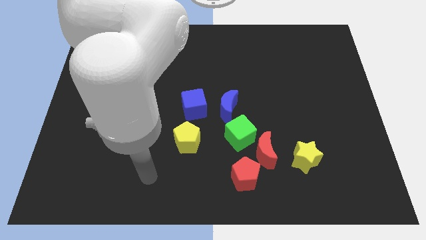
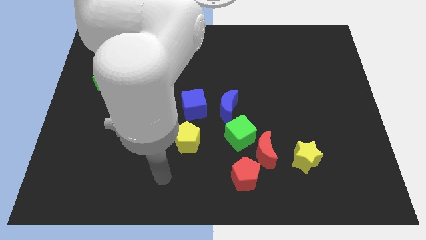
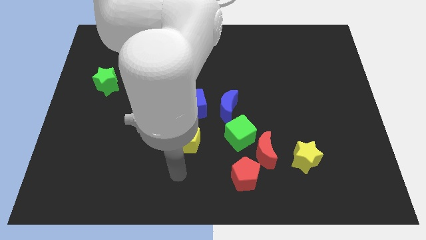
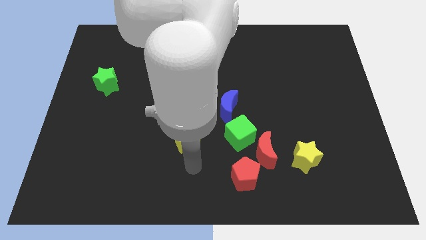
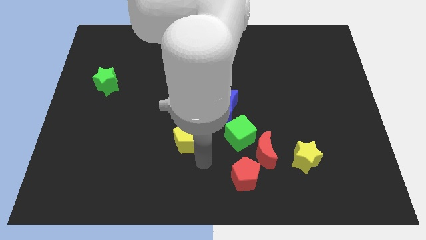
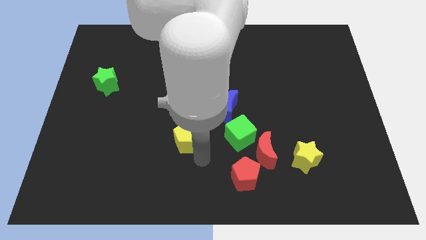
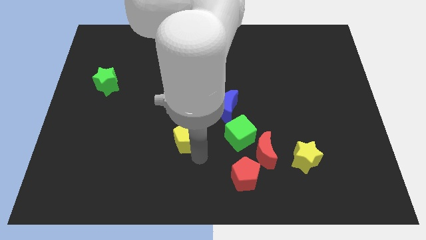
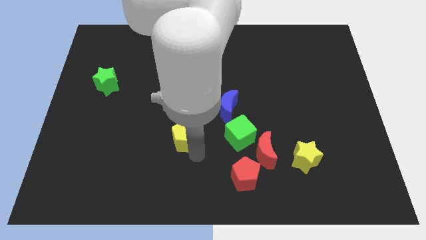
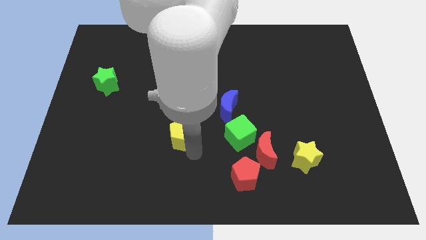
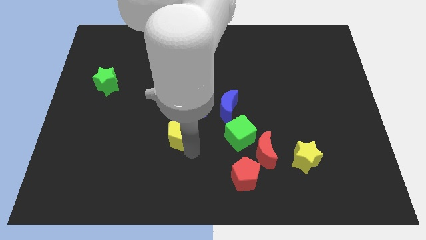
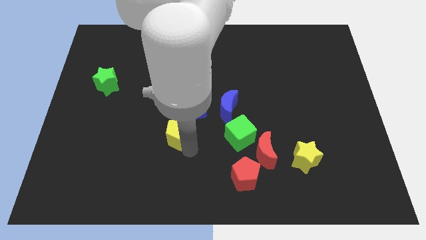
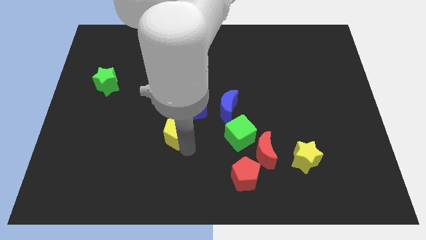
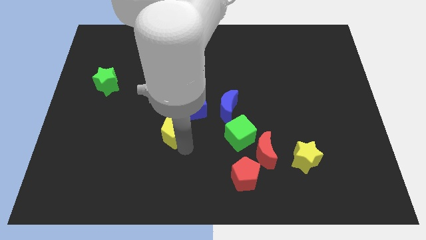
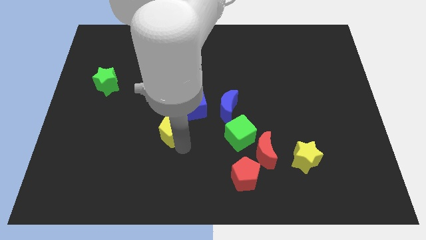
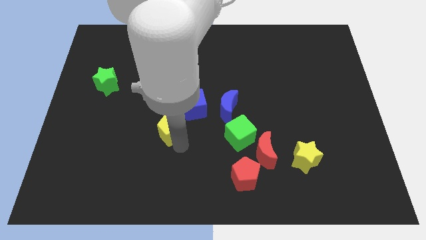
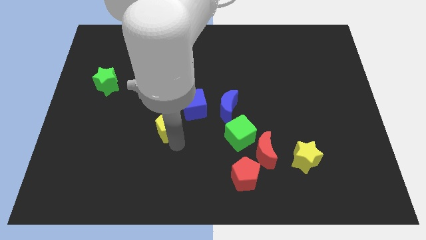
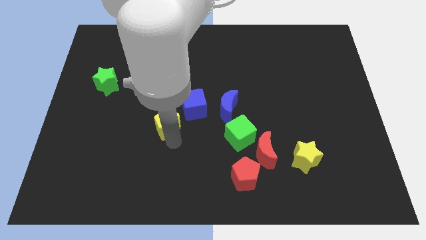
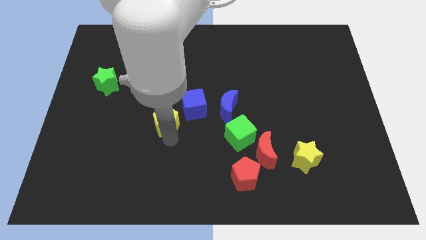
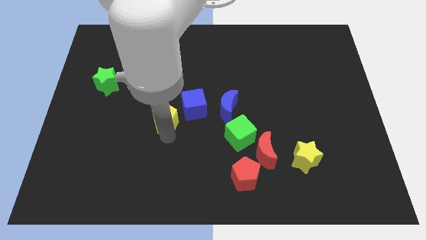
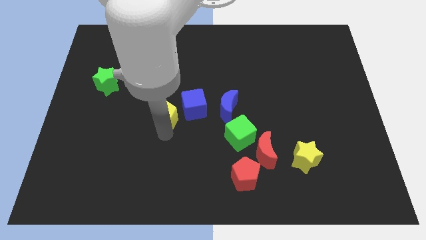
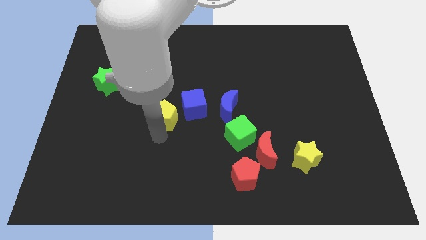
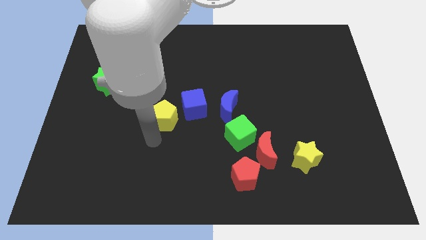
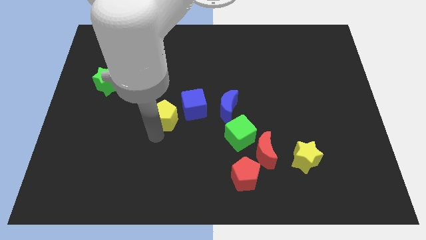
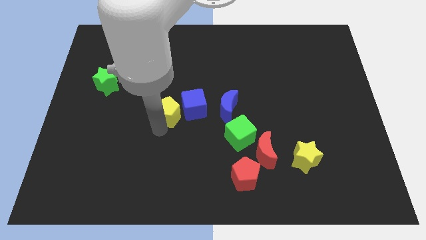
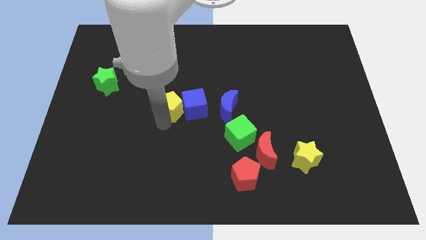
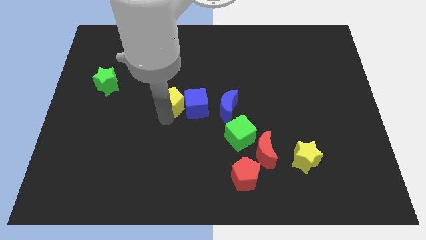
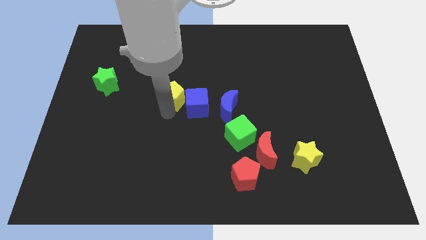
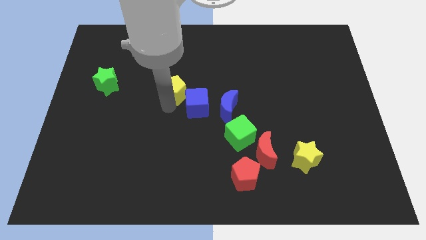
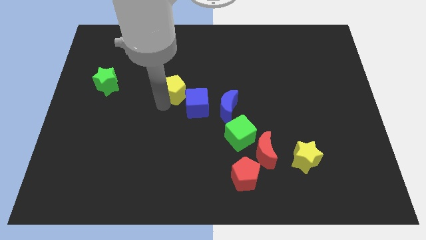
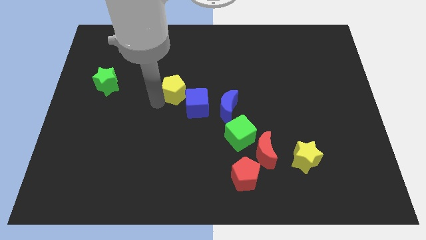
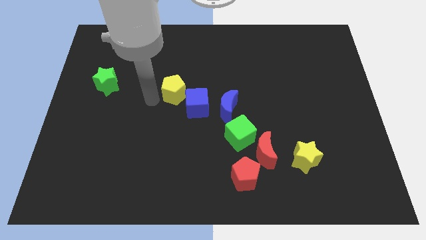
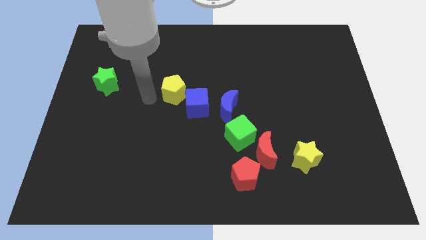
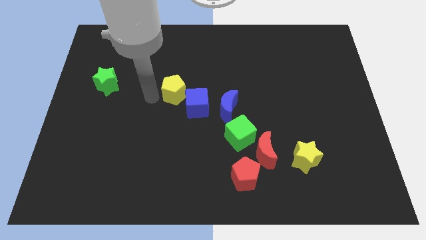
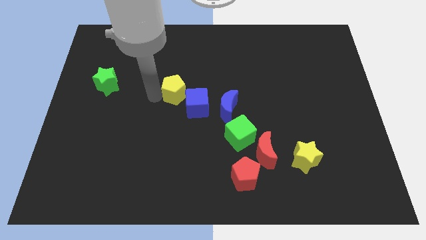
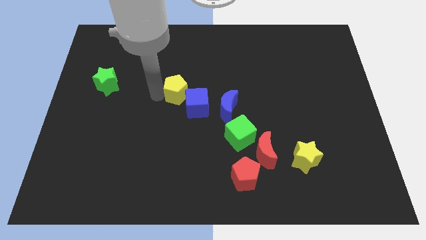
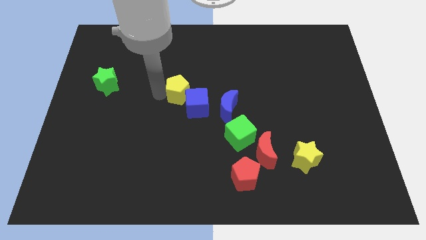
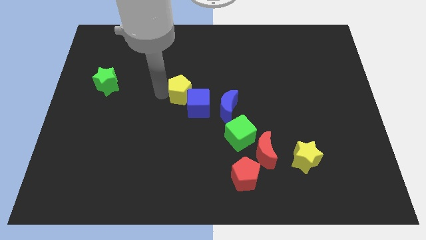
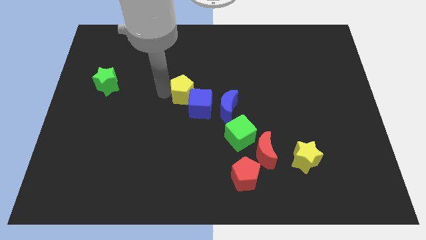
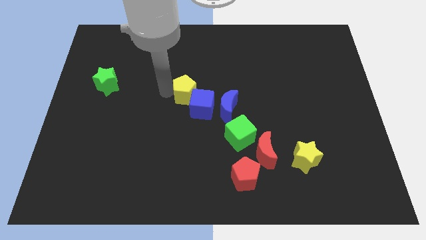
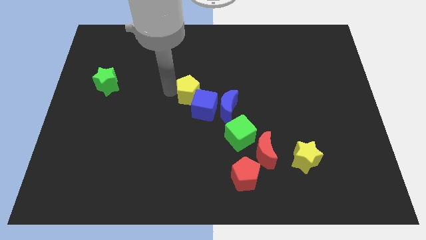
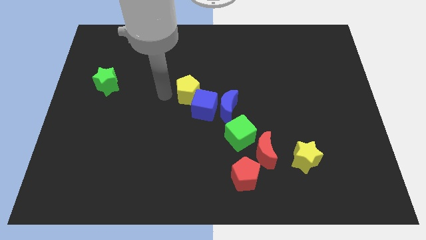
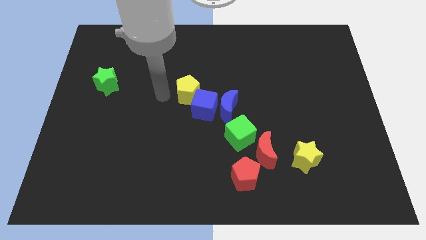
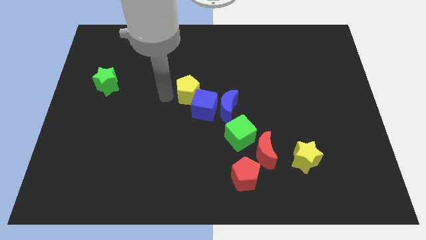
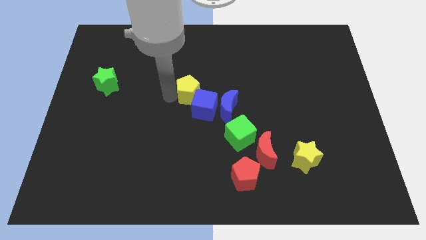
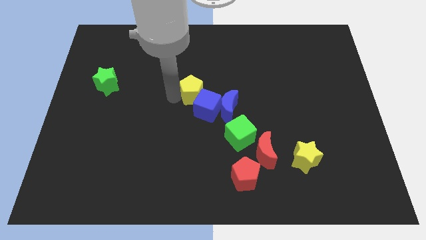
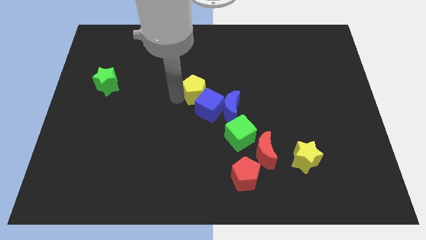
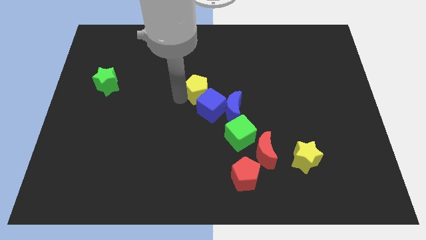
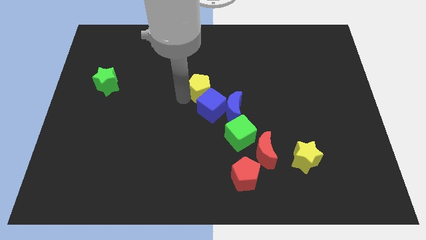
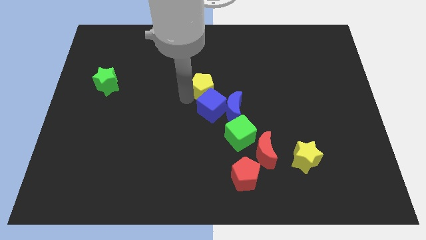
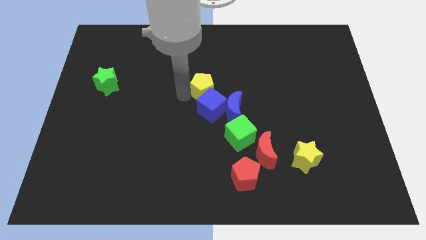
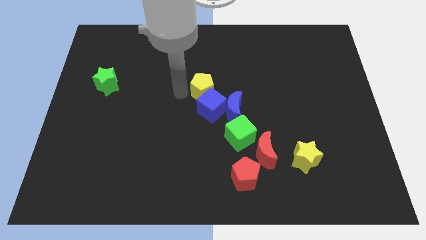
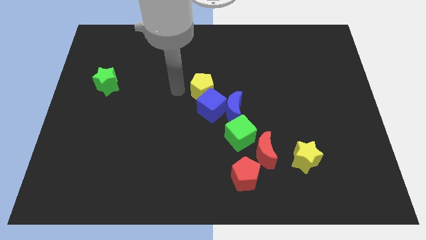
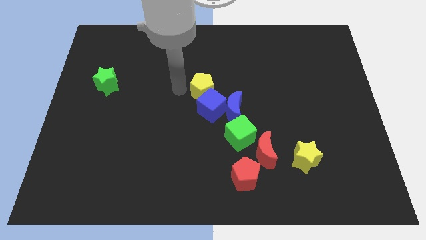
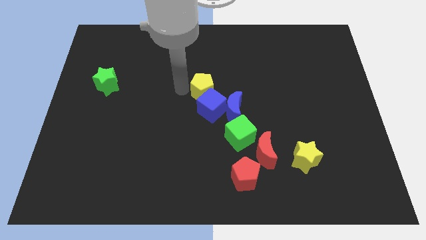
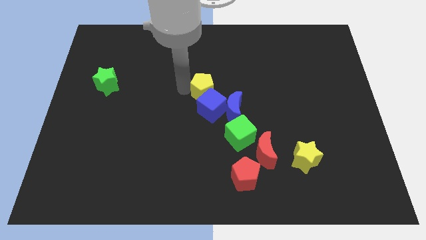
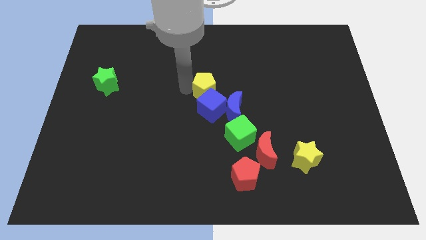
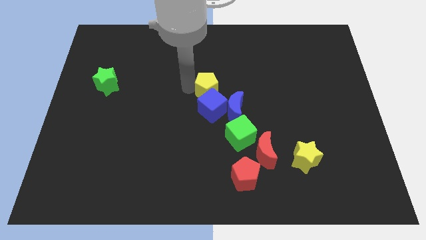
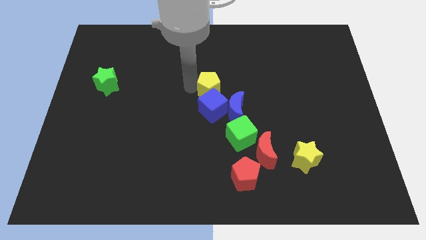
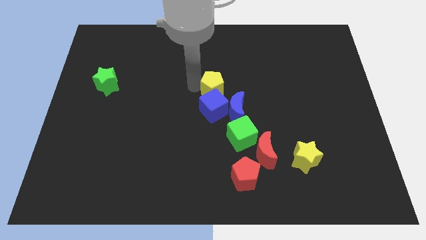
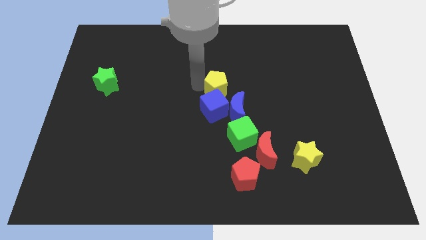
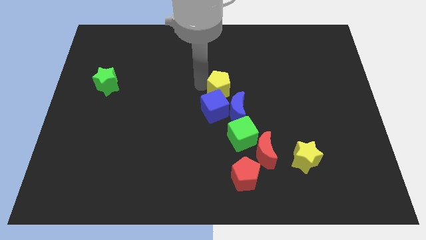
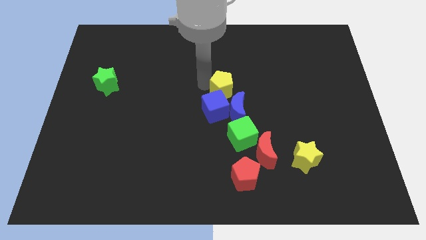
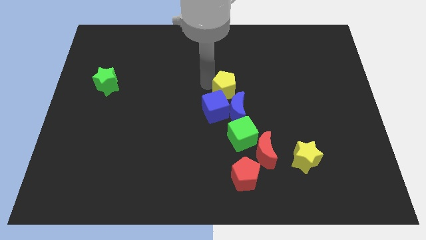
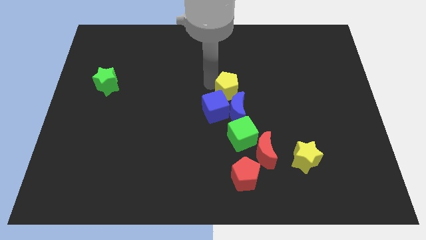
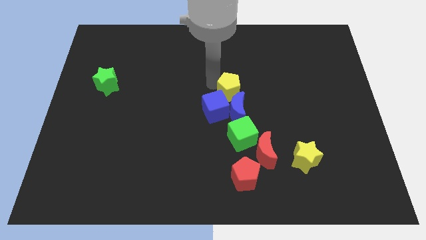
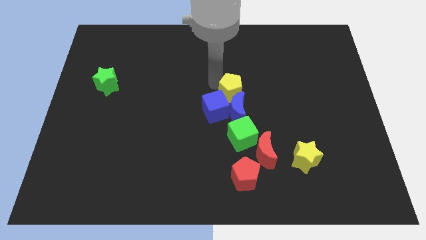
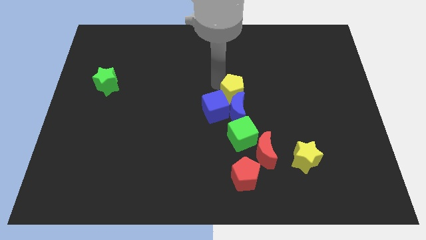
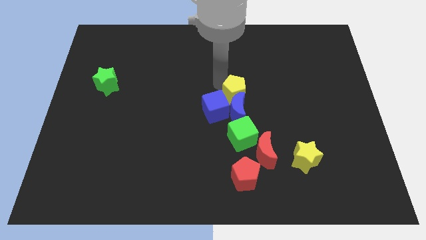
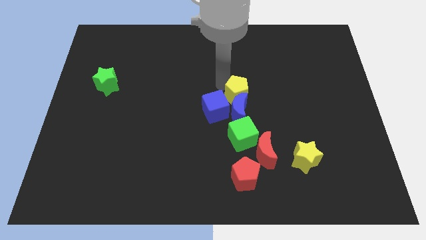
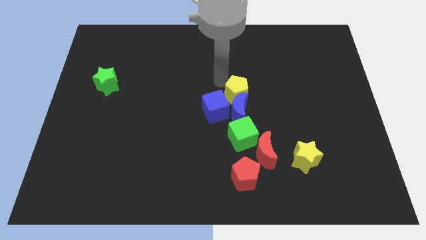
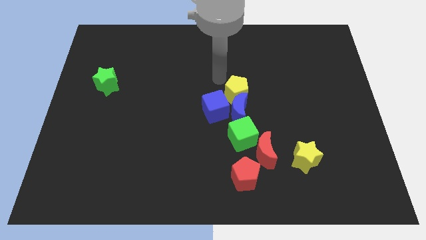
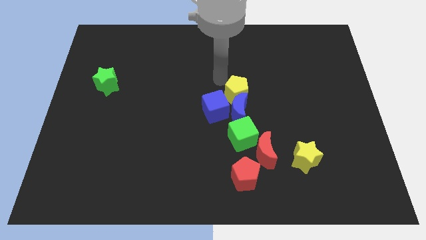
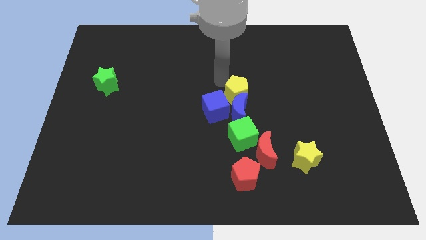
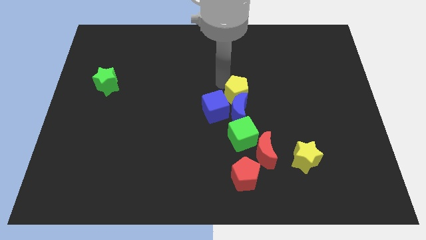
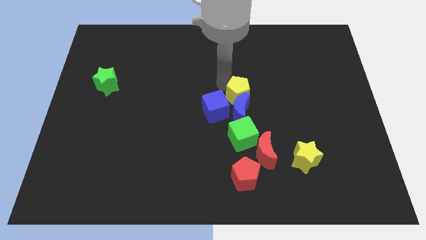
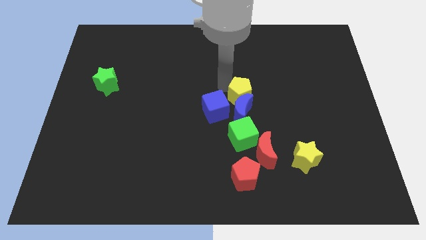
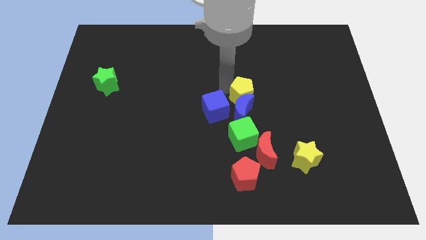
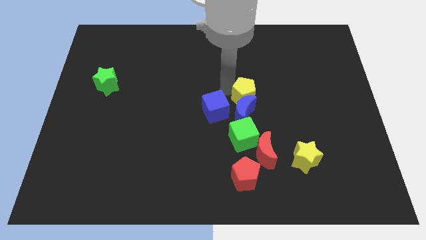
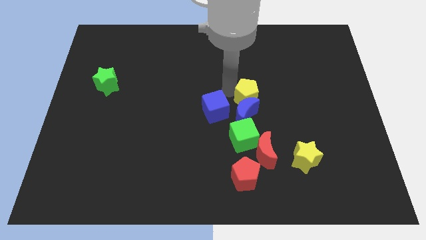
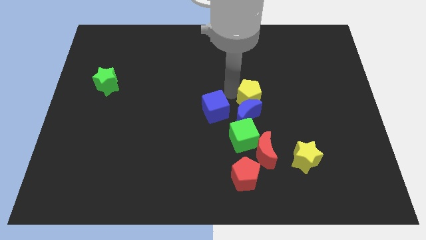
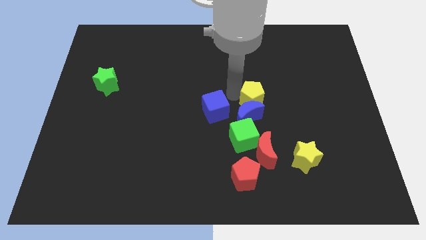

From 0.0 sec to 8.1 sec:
slightly push the yellow pentagon to the right
